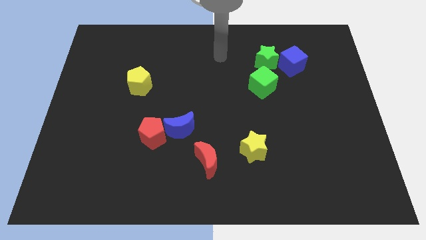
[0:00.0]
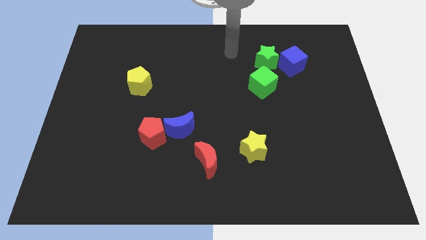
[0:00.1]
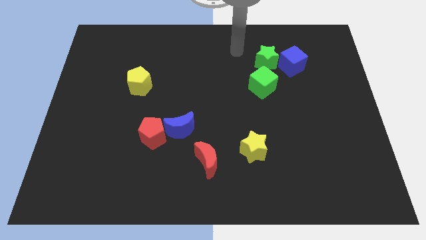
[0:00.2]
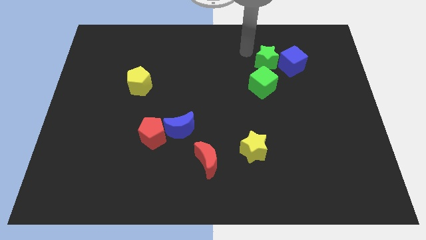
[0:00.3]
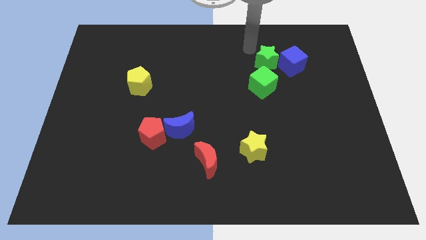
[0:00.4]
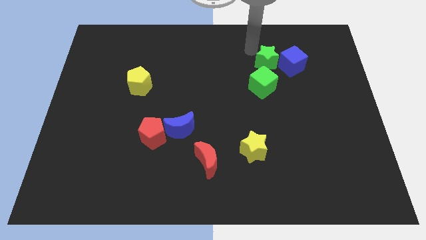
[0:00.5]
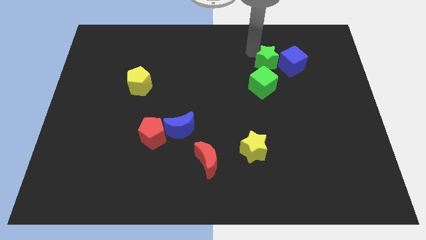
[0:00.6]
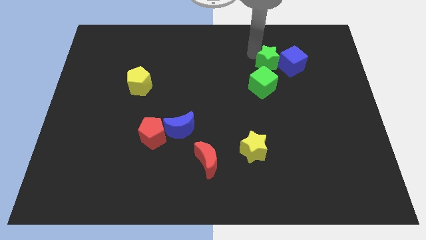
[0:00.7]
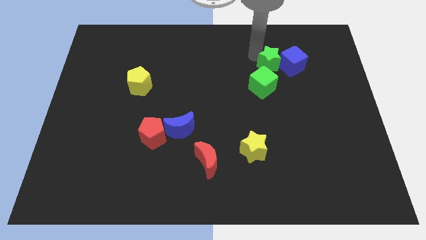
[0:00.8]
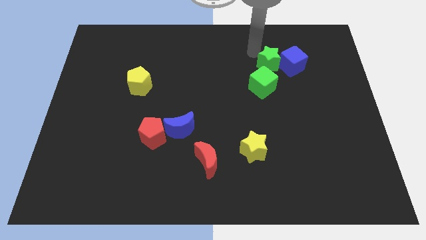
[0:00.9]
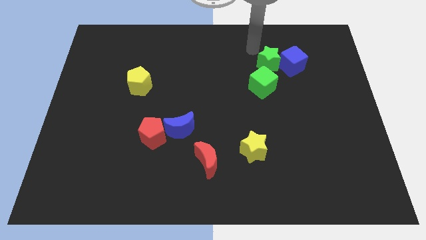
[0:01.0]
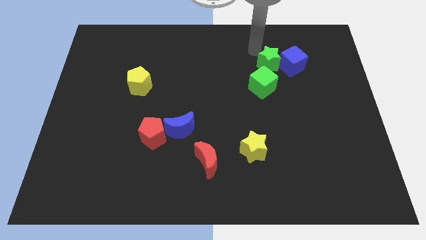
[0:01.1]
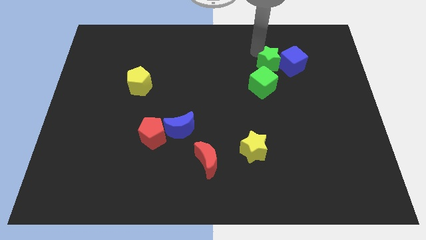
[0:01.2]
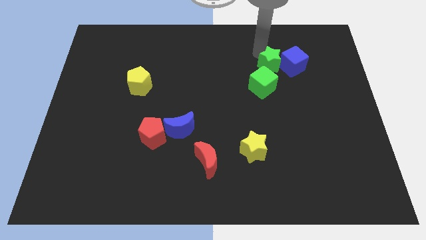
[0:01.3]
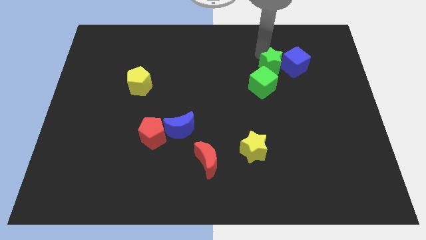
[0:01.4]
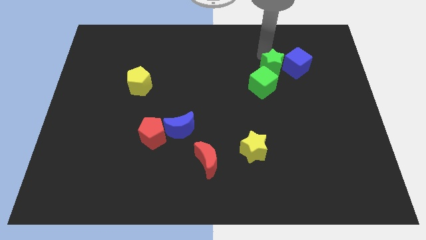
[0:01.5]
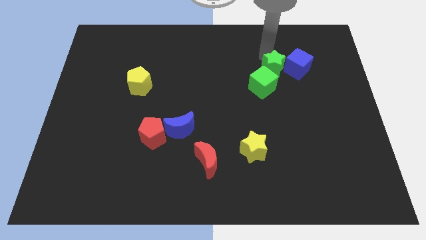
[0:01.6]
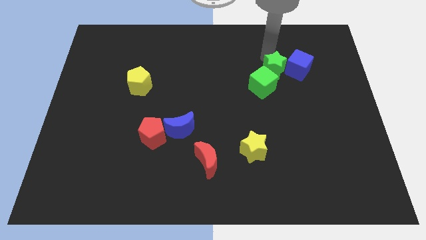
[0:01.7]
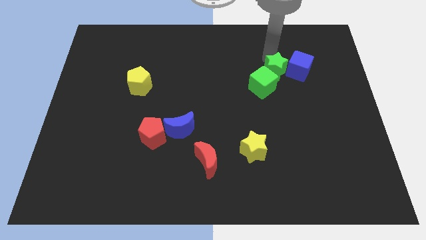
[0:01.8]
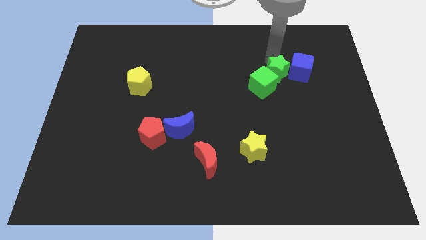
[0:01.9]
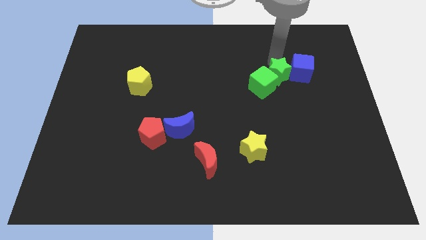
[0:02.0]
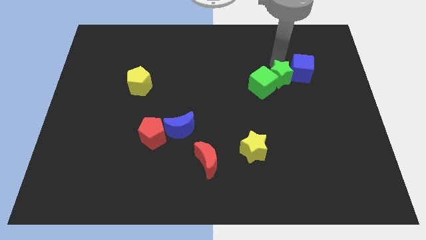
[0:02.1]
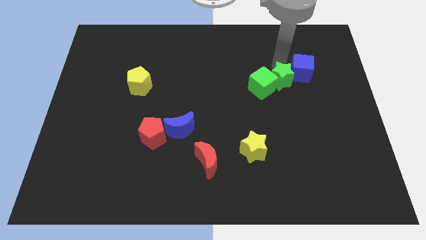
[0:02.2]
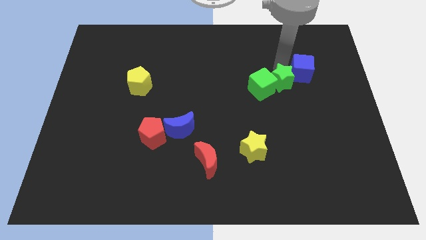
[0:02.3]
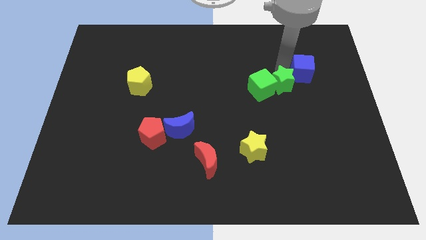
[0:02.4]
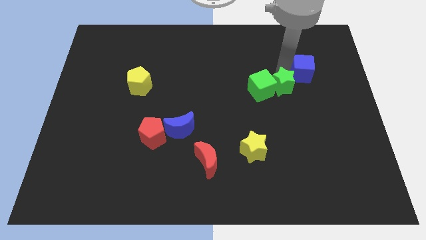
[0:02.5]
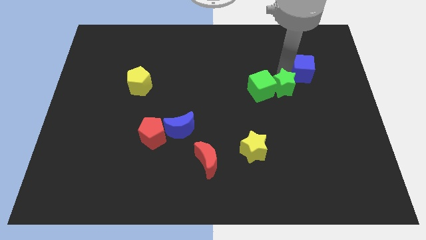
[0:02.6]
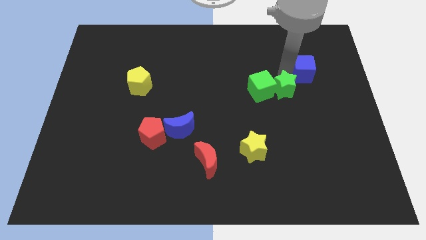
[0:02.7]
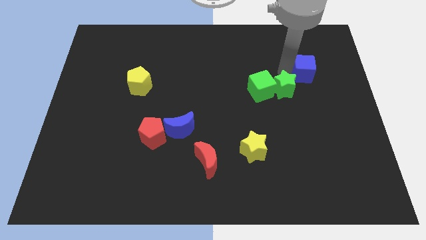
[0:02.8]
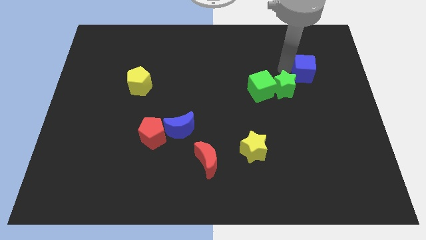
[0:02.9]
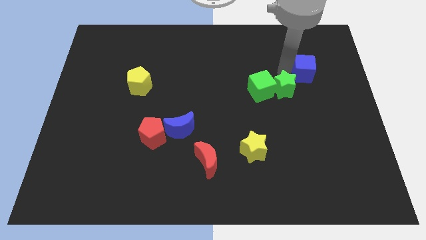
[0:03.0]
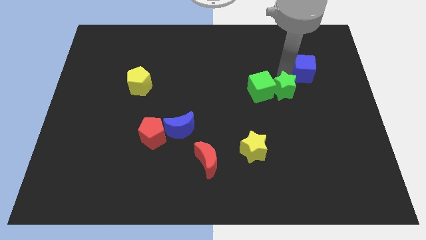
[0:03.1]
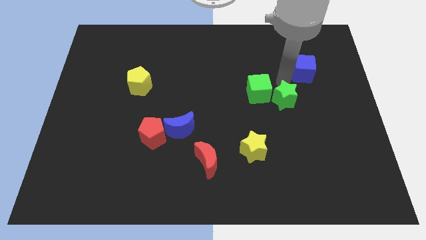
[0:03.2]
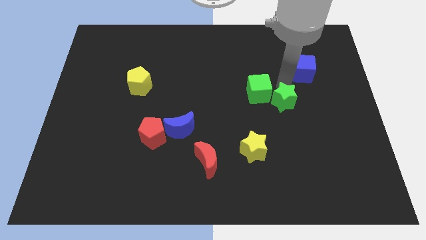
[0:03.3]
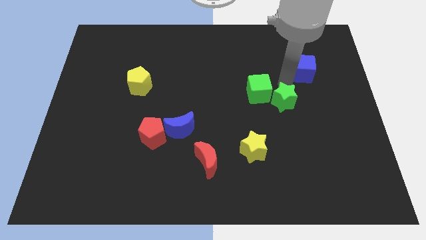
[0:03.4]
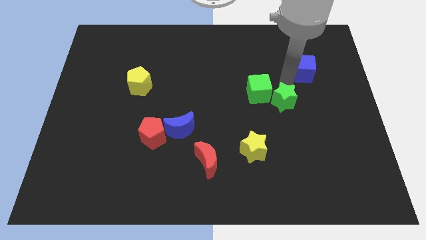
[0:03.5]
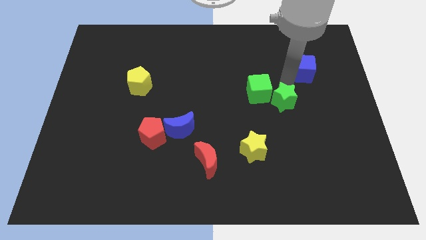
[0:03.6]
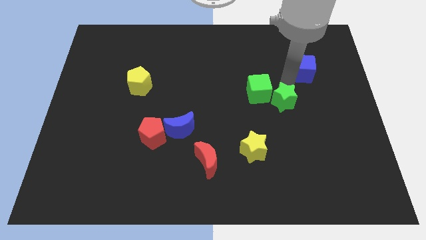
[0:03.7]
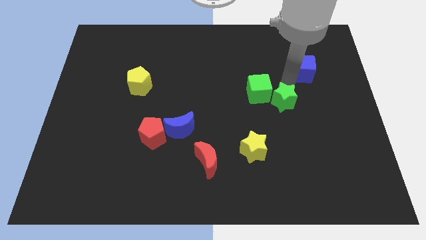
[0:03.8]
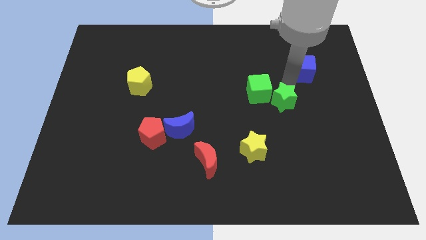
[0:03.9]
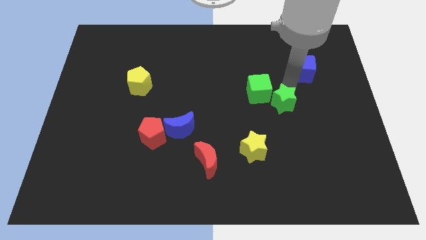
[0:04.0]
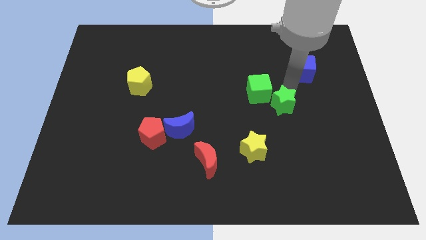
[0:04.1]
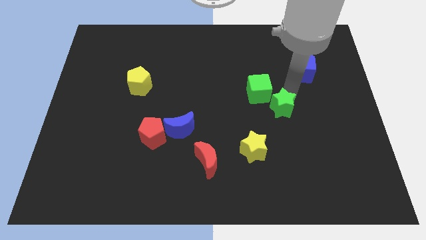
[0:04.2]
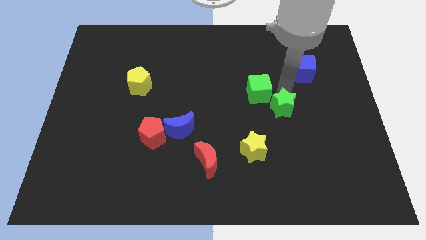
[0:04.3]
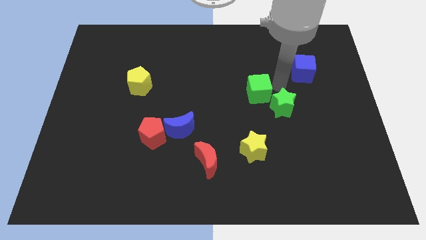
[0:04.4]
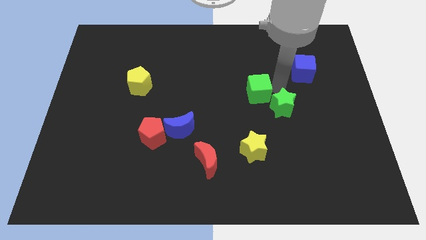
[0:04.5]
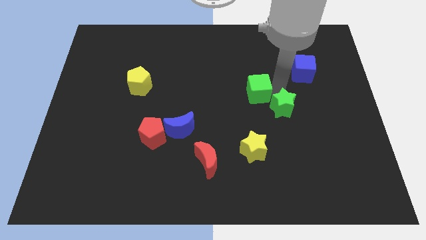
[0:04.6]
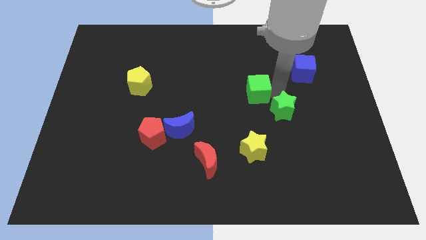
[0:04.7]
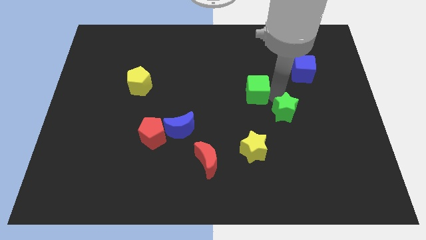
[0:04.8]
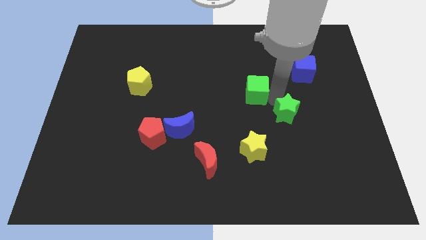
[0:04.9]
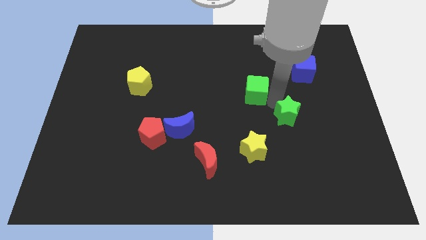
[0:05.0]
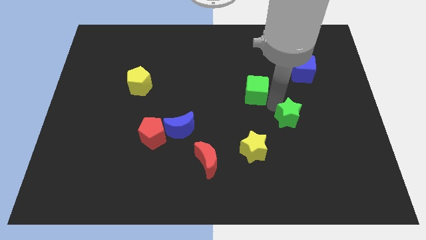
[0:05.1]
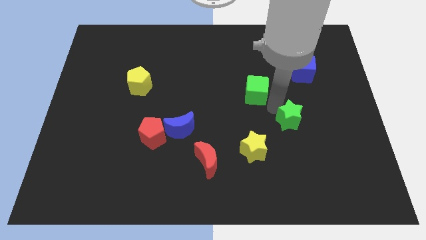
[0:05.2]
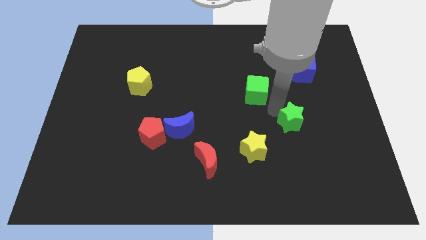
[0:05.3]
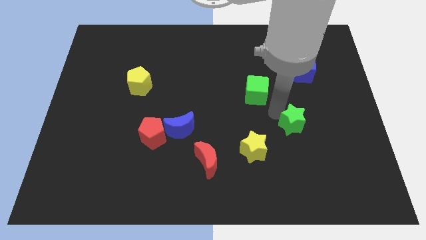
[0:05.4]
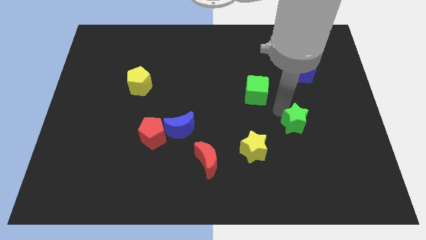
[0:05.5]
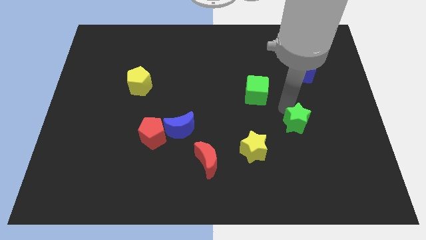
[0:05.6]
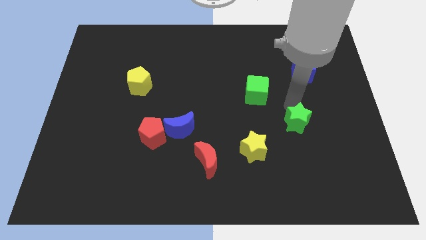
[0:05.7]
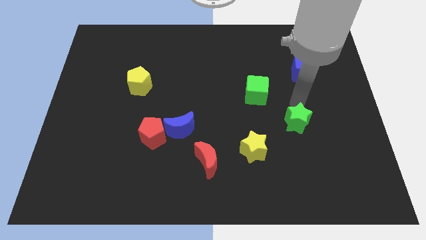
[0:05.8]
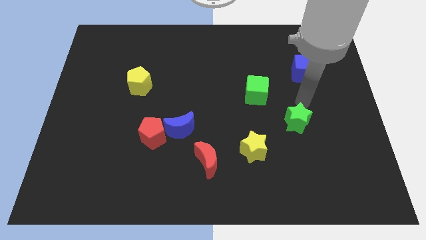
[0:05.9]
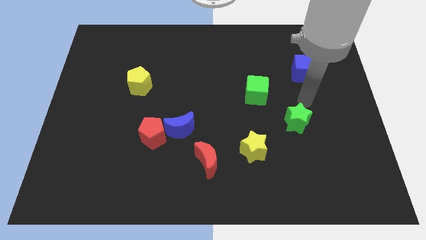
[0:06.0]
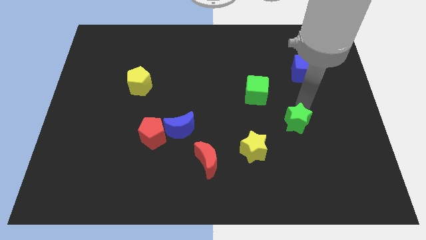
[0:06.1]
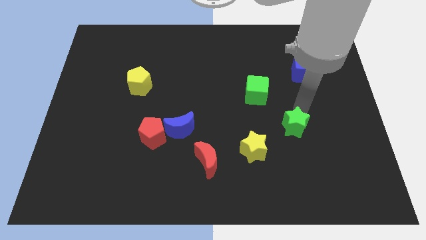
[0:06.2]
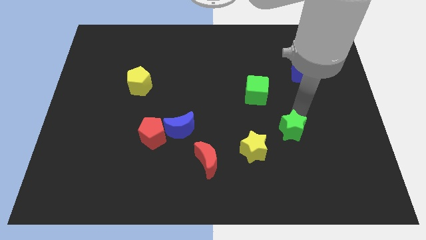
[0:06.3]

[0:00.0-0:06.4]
slide the green star downwards

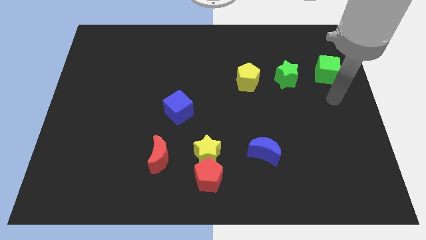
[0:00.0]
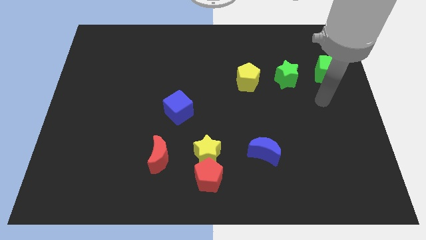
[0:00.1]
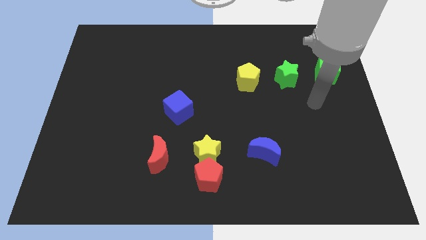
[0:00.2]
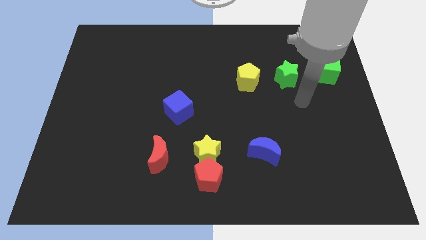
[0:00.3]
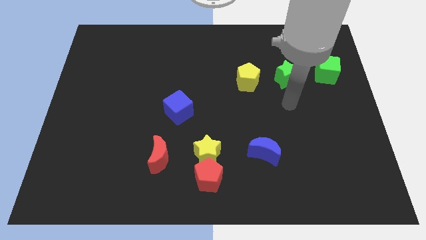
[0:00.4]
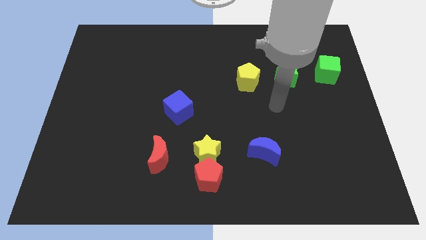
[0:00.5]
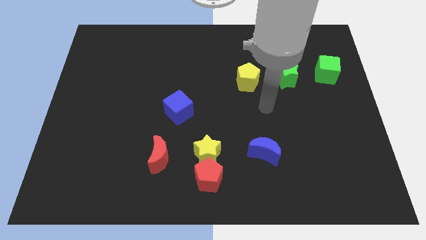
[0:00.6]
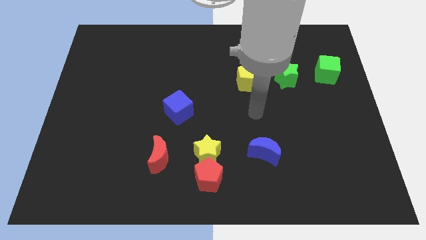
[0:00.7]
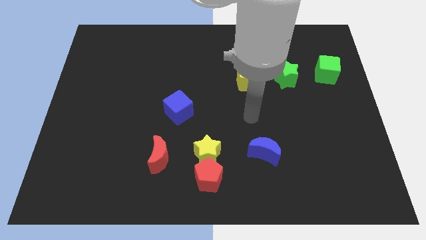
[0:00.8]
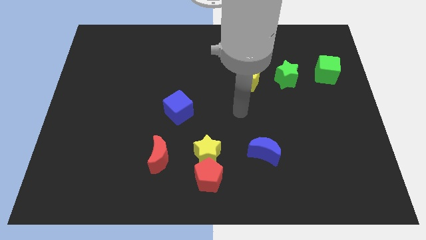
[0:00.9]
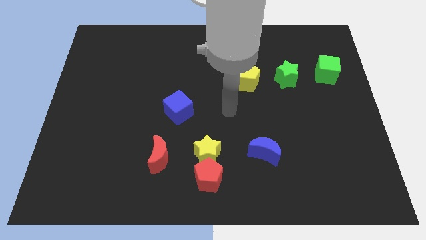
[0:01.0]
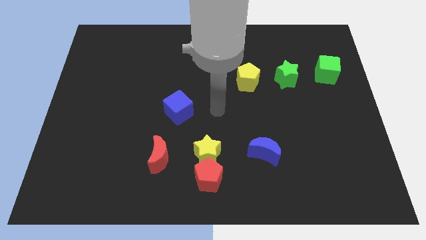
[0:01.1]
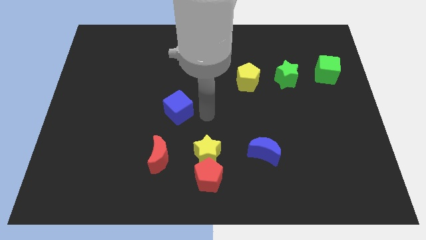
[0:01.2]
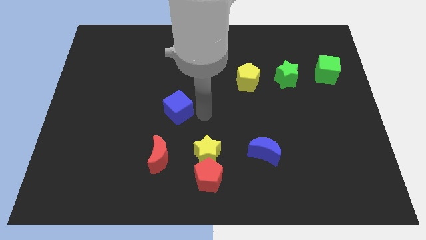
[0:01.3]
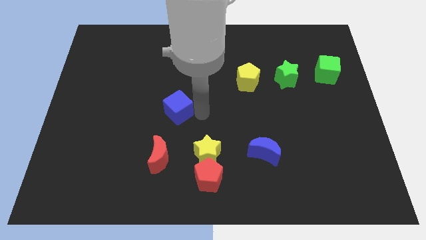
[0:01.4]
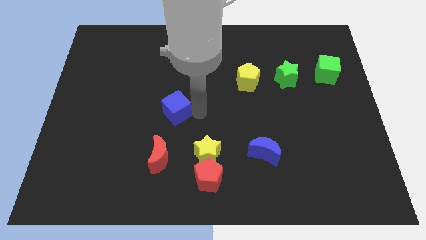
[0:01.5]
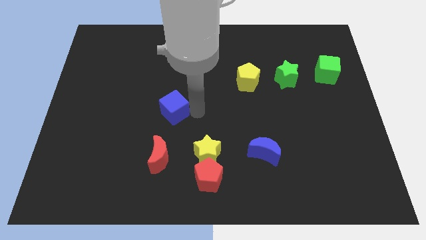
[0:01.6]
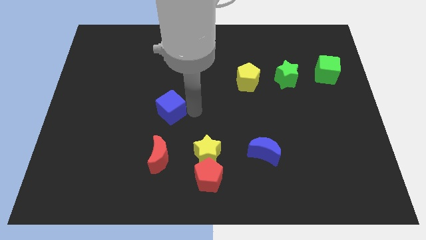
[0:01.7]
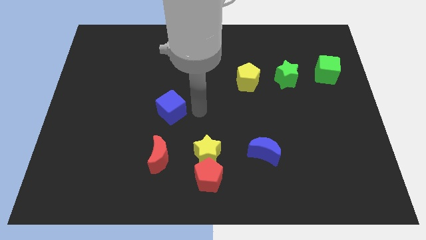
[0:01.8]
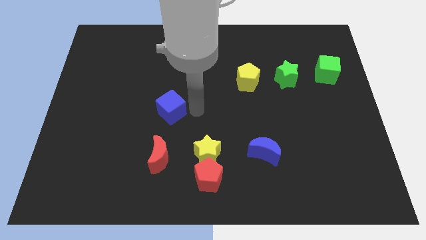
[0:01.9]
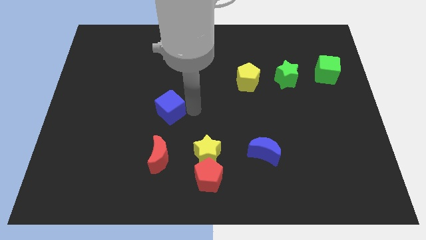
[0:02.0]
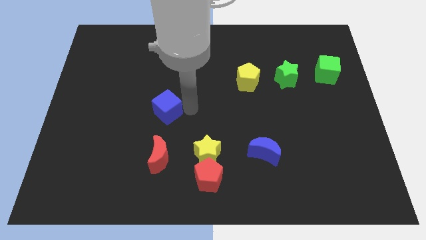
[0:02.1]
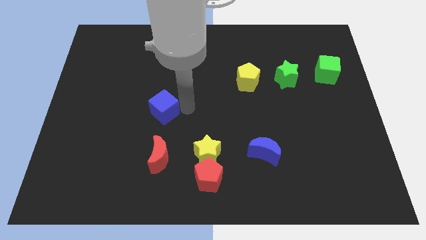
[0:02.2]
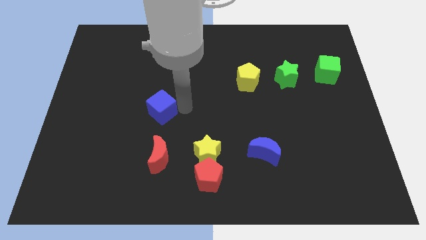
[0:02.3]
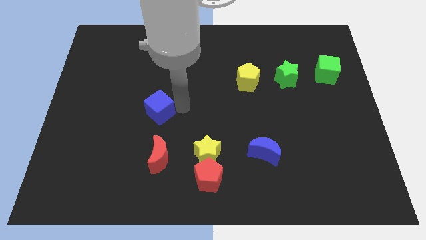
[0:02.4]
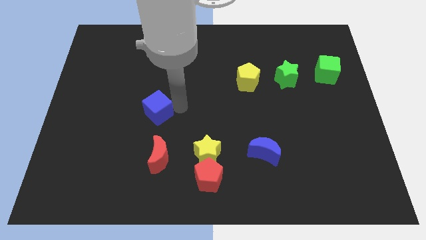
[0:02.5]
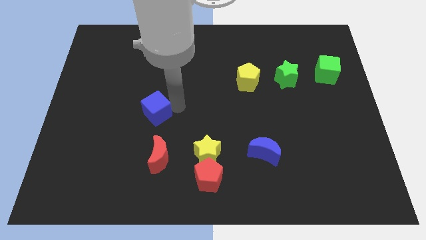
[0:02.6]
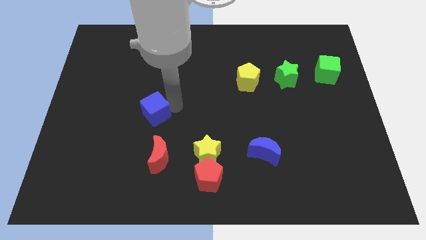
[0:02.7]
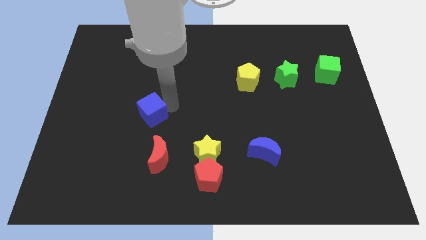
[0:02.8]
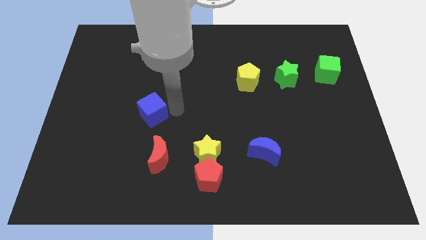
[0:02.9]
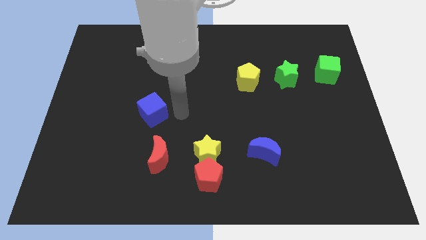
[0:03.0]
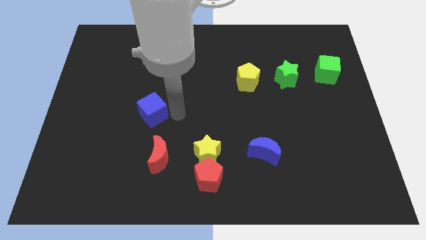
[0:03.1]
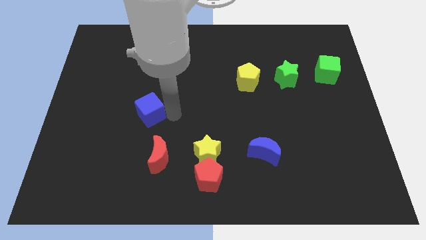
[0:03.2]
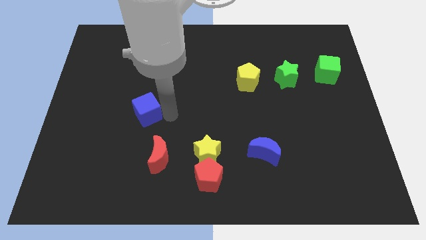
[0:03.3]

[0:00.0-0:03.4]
move the blue cube a bit to the left
